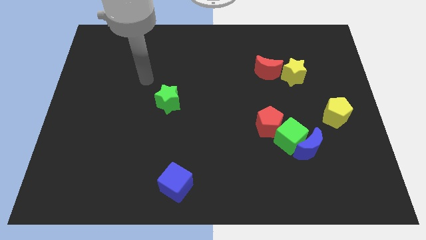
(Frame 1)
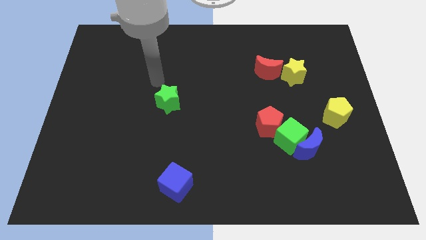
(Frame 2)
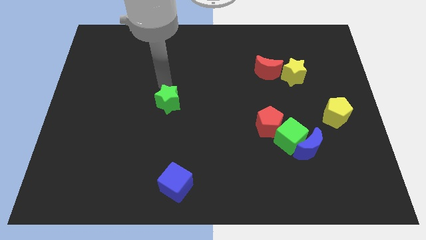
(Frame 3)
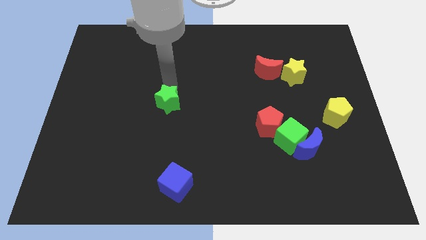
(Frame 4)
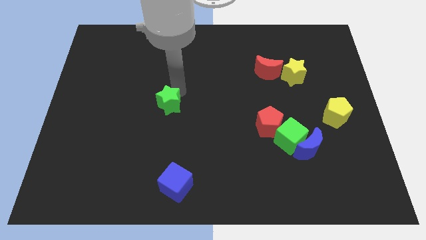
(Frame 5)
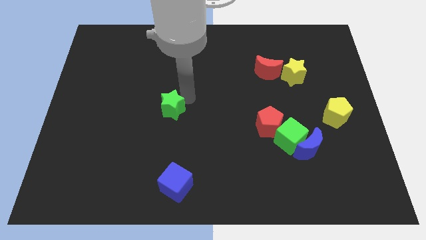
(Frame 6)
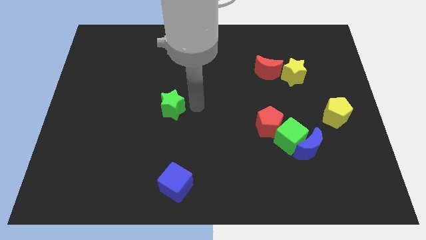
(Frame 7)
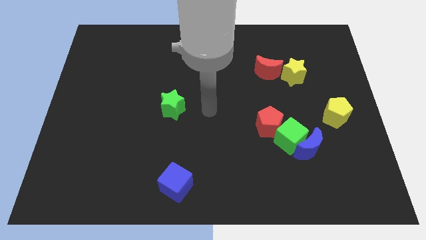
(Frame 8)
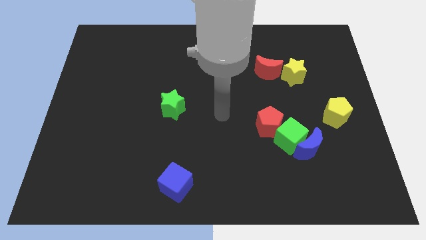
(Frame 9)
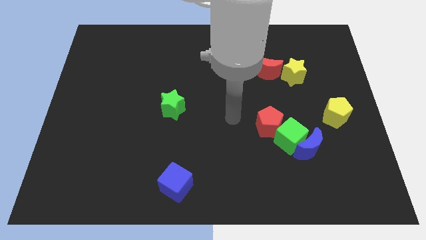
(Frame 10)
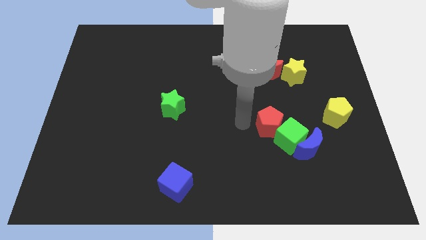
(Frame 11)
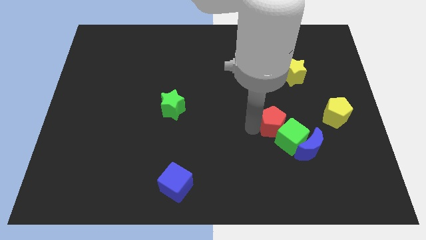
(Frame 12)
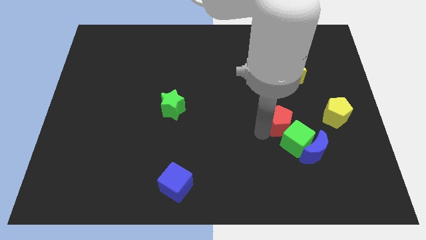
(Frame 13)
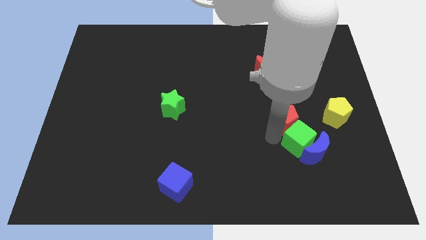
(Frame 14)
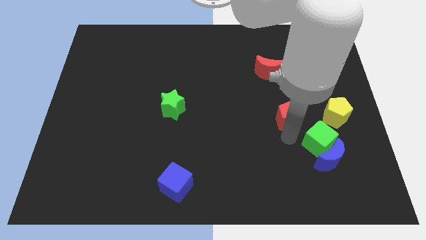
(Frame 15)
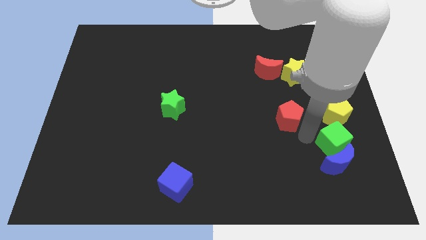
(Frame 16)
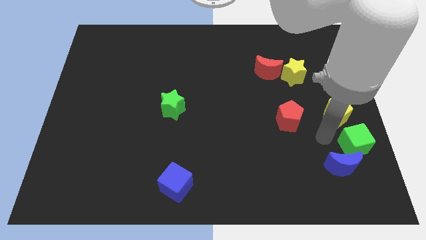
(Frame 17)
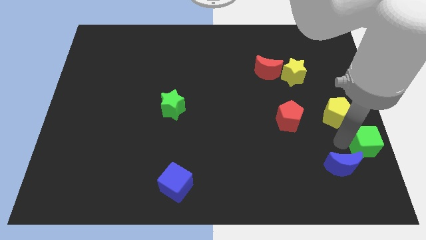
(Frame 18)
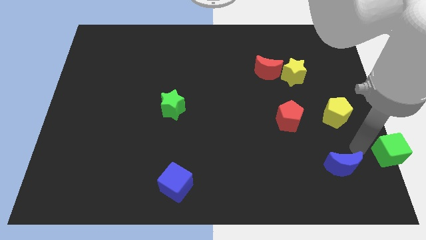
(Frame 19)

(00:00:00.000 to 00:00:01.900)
move the blue moon away from the green cube

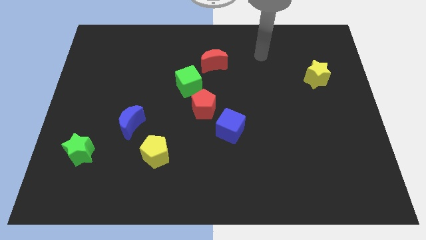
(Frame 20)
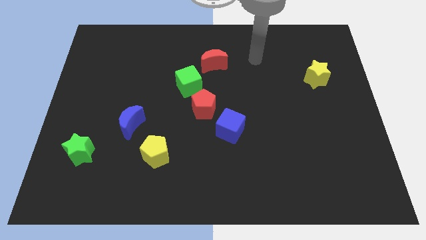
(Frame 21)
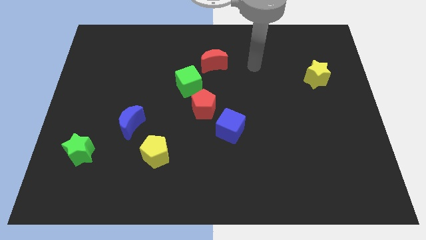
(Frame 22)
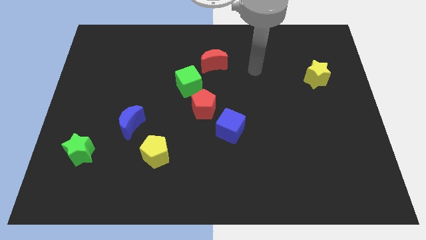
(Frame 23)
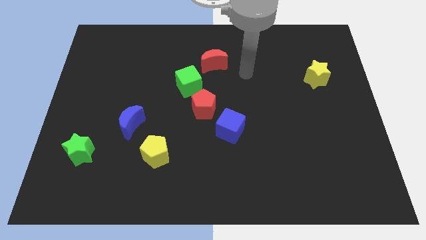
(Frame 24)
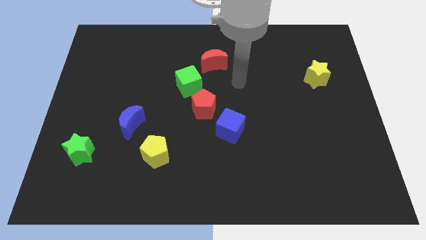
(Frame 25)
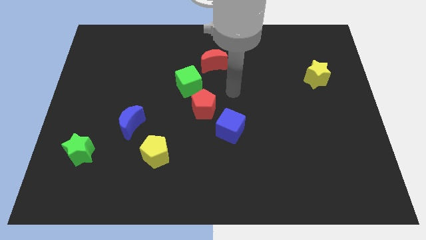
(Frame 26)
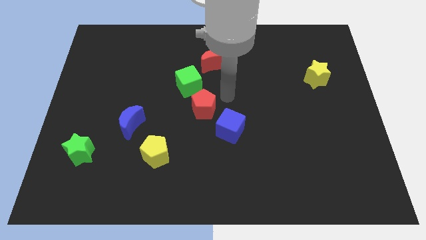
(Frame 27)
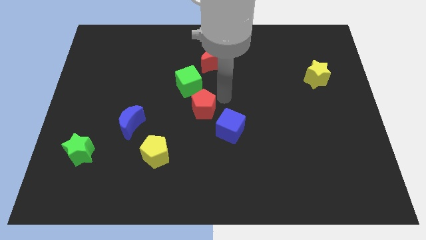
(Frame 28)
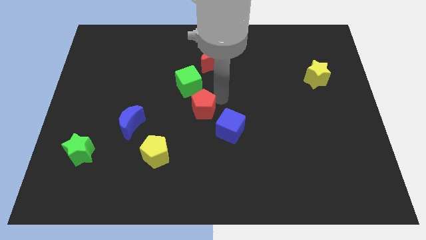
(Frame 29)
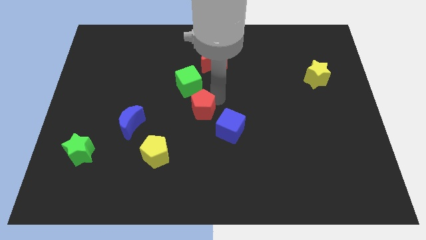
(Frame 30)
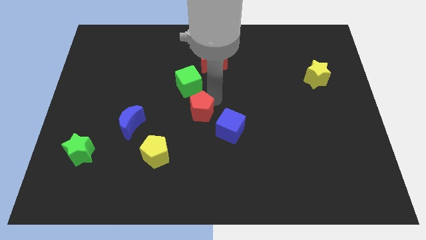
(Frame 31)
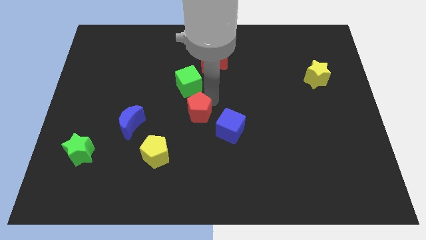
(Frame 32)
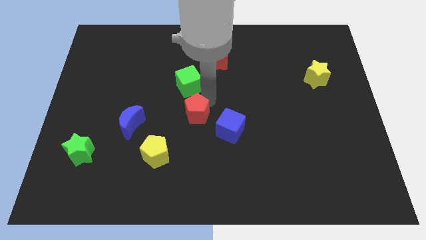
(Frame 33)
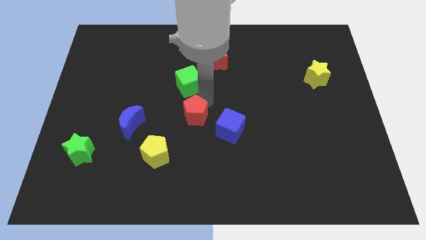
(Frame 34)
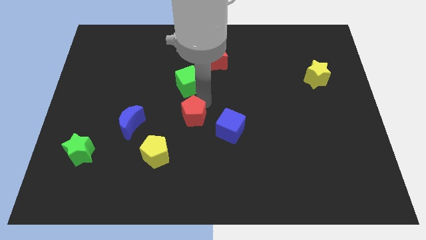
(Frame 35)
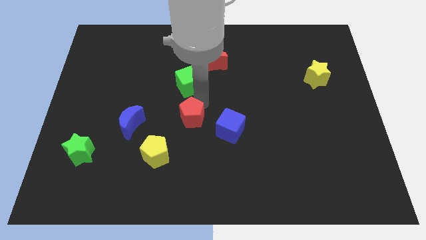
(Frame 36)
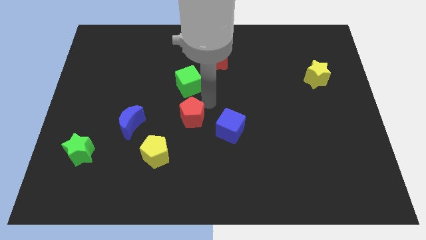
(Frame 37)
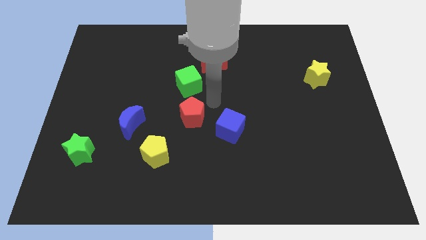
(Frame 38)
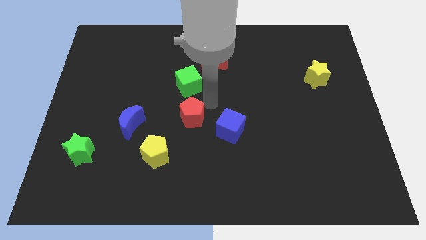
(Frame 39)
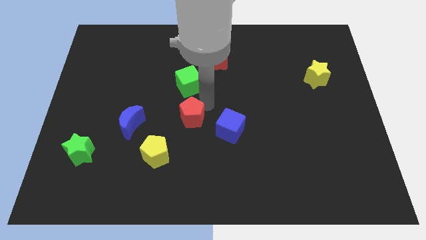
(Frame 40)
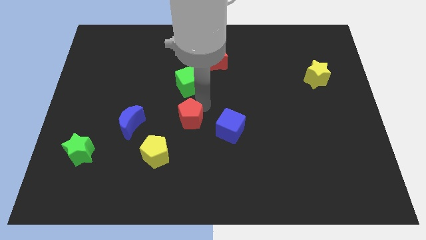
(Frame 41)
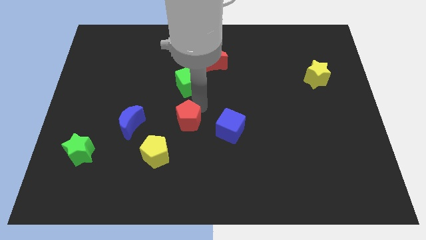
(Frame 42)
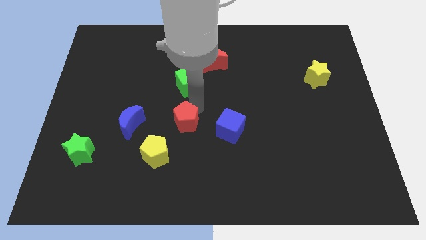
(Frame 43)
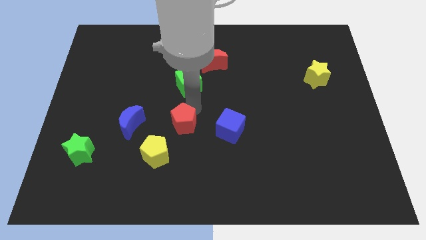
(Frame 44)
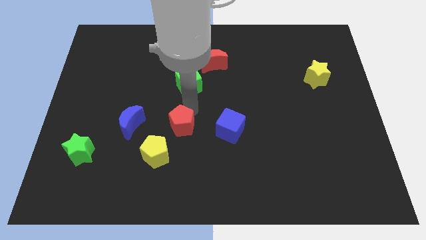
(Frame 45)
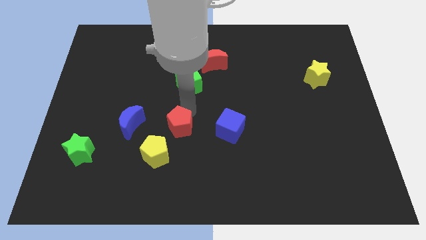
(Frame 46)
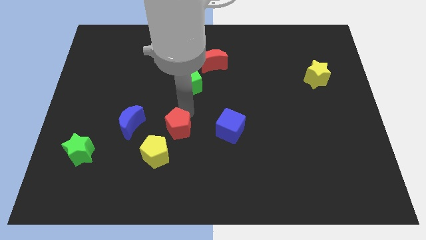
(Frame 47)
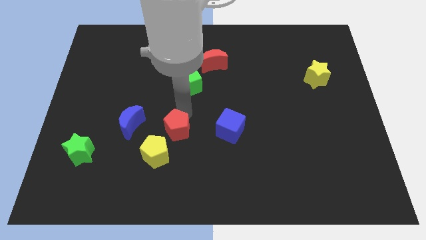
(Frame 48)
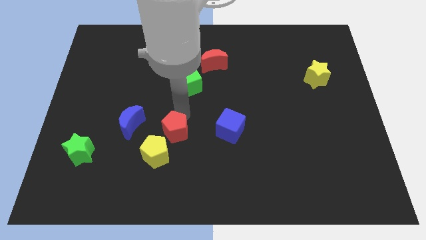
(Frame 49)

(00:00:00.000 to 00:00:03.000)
separate the red pentagon from the green cube and blue cube

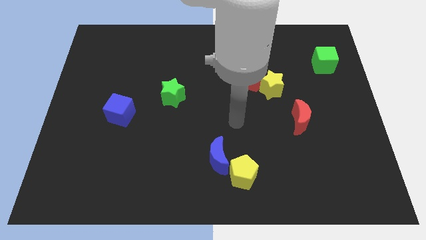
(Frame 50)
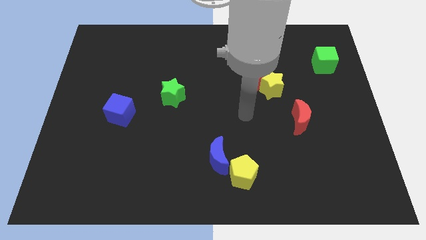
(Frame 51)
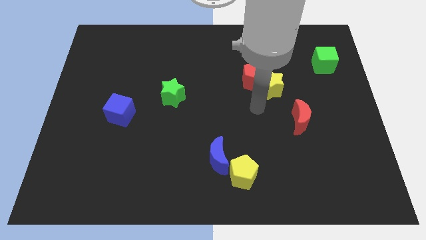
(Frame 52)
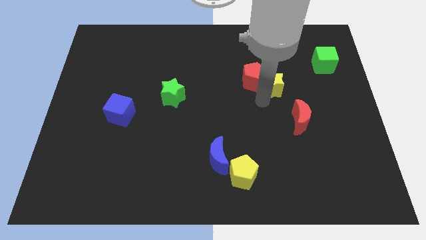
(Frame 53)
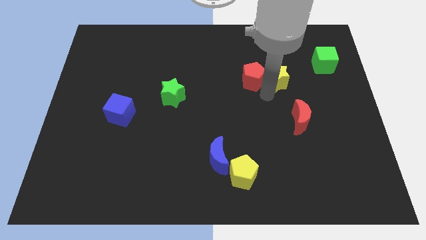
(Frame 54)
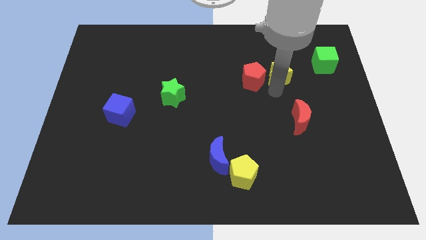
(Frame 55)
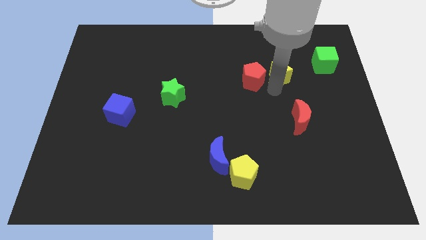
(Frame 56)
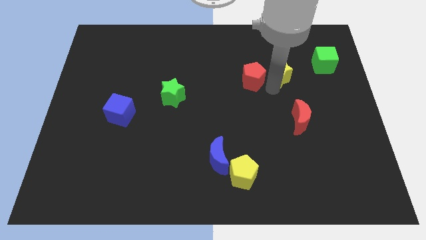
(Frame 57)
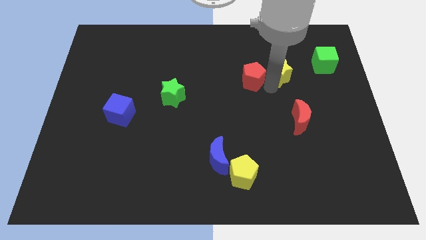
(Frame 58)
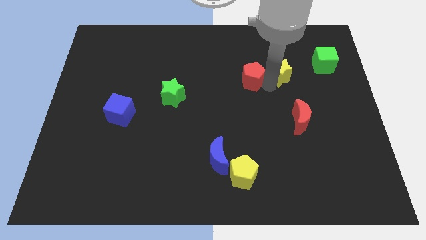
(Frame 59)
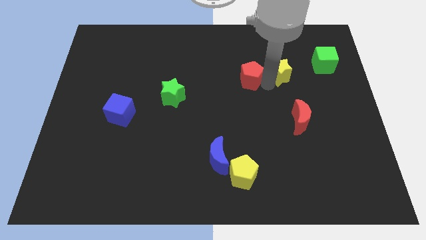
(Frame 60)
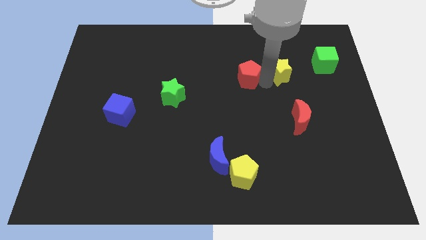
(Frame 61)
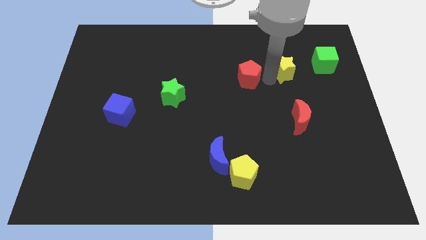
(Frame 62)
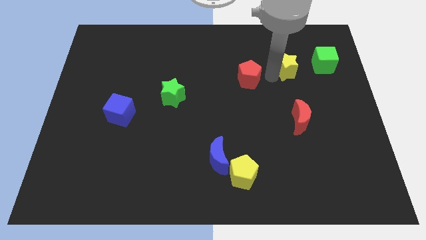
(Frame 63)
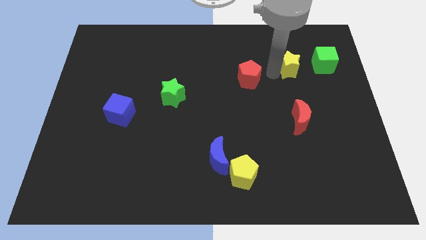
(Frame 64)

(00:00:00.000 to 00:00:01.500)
separate the red pentagon from the yellow star

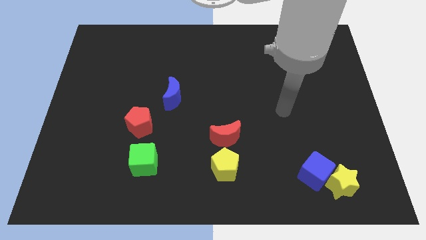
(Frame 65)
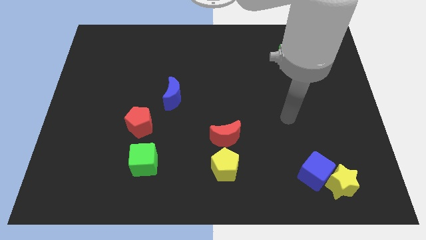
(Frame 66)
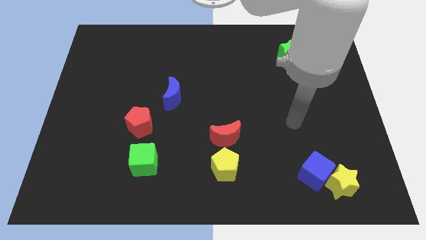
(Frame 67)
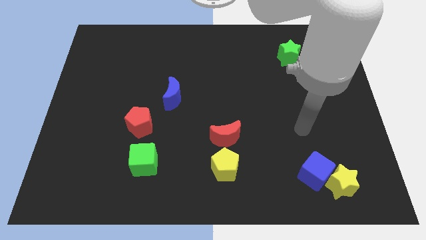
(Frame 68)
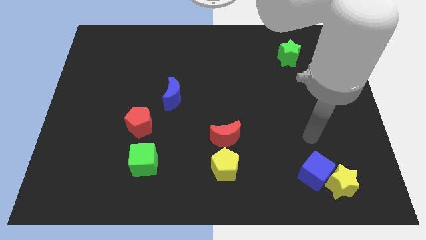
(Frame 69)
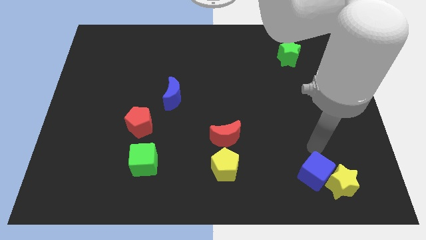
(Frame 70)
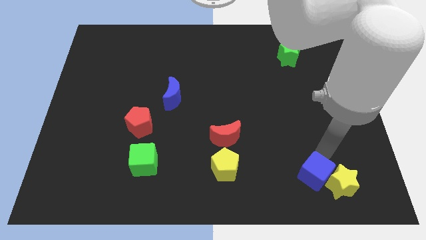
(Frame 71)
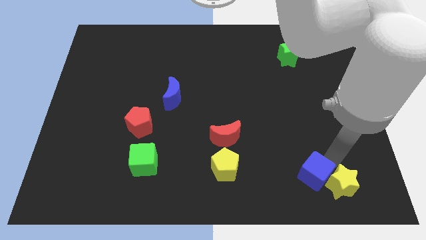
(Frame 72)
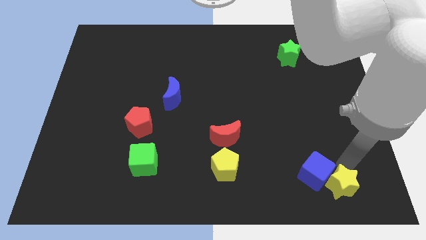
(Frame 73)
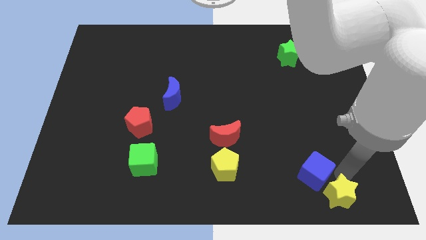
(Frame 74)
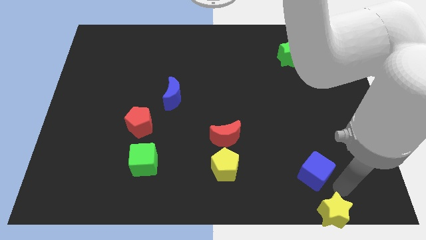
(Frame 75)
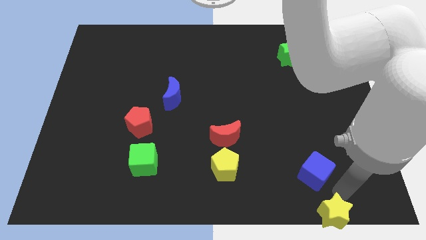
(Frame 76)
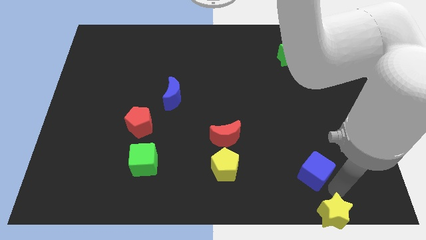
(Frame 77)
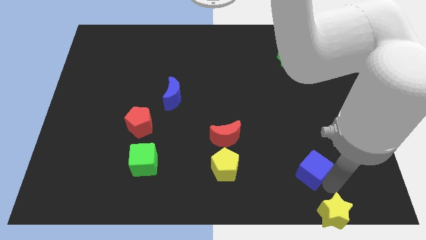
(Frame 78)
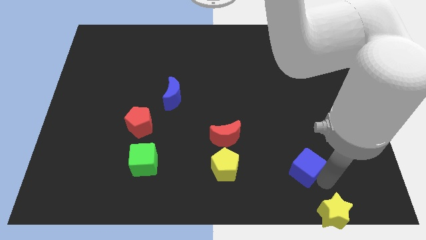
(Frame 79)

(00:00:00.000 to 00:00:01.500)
move the blue cube away from the yellow star

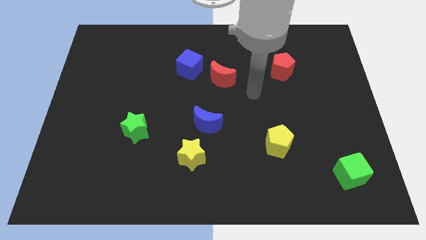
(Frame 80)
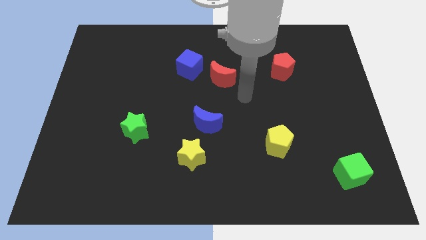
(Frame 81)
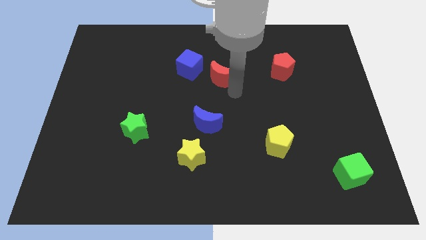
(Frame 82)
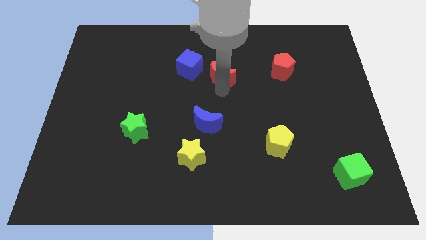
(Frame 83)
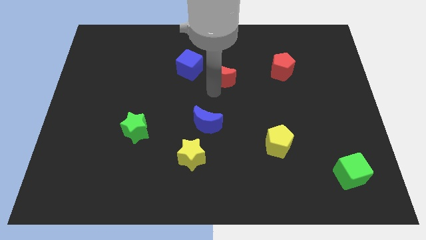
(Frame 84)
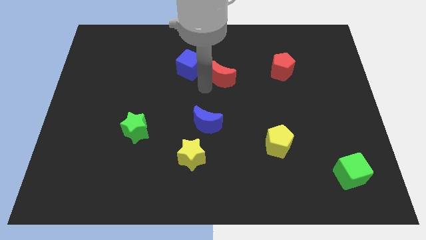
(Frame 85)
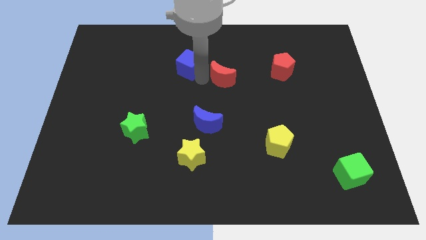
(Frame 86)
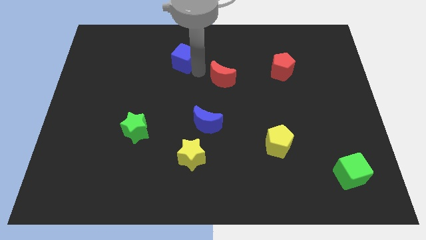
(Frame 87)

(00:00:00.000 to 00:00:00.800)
move the red moon away from the blue cube

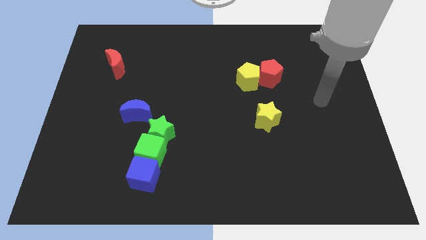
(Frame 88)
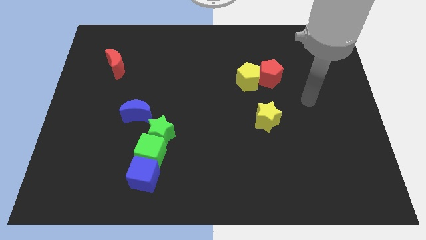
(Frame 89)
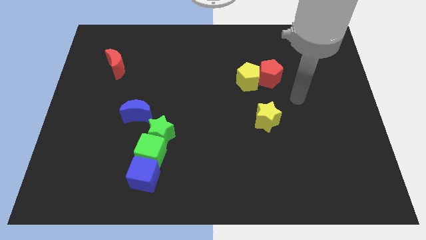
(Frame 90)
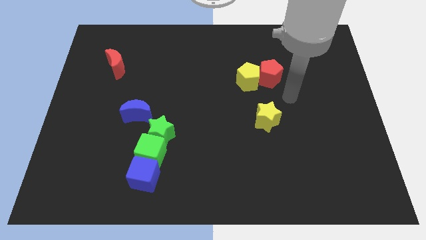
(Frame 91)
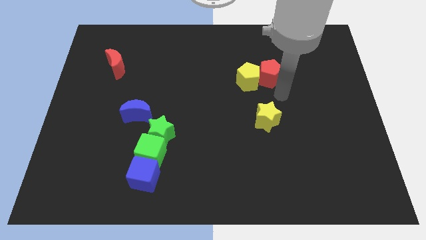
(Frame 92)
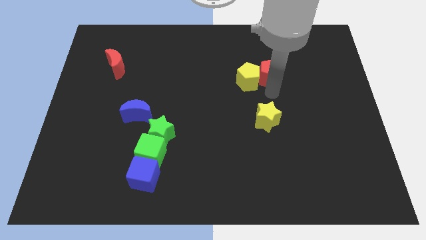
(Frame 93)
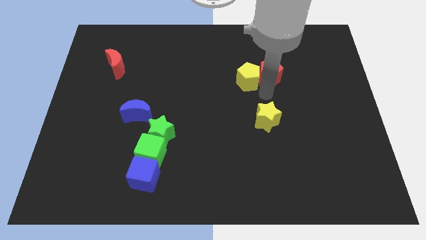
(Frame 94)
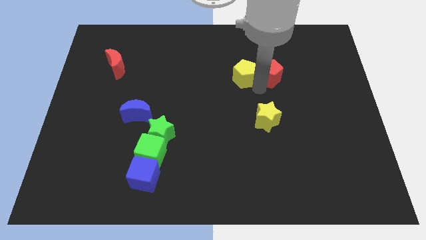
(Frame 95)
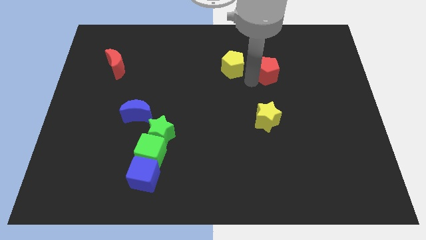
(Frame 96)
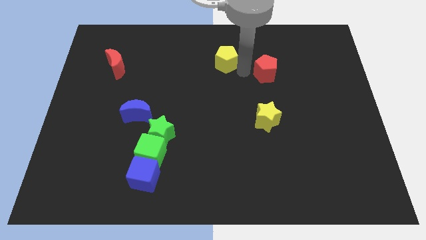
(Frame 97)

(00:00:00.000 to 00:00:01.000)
separate the red pentagon from the yellow pentagon
